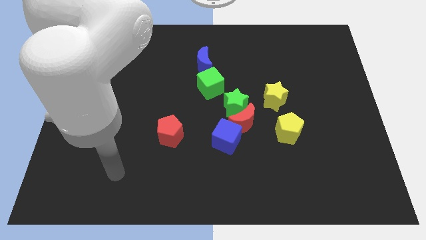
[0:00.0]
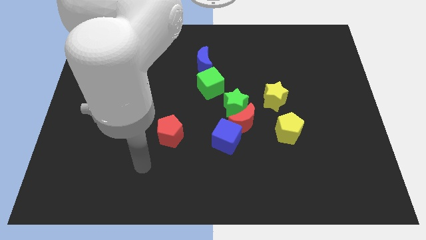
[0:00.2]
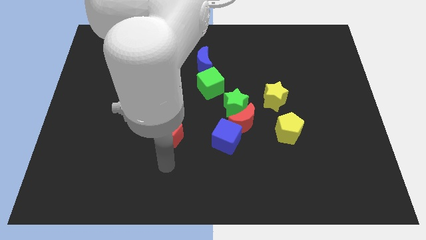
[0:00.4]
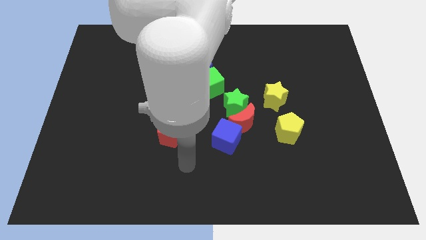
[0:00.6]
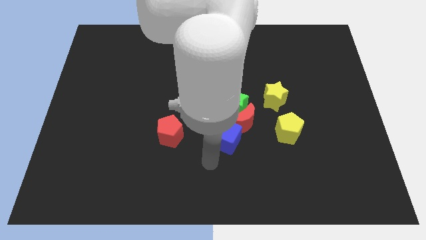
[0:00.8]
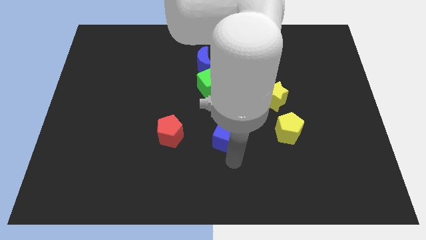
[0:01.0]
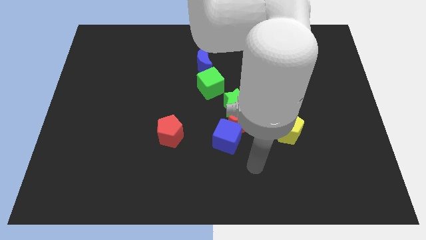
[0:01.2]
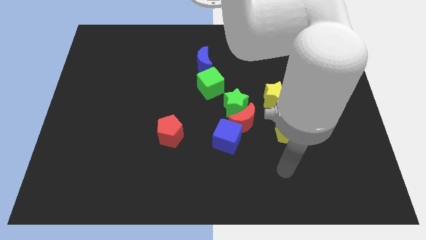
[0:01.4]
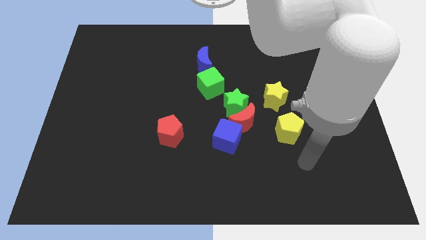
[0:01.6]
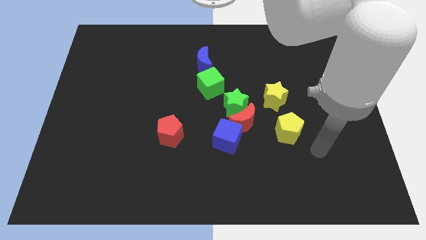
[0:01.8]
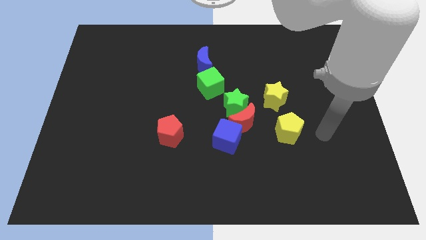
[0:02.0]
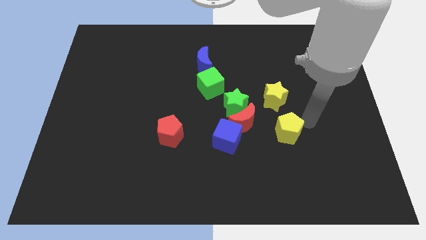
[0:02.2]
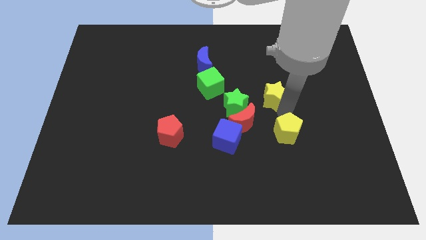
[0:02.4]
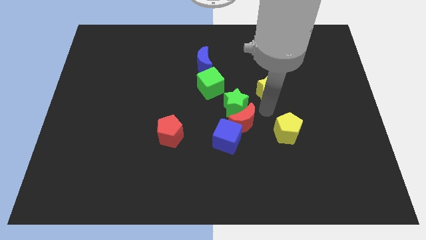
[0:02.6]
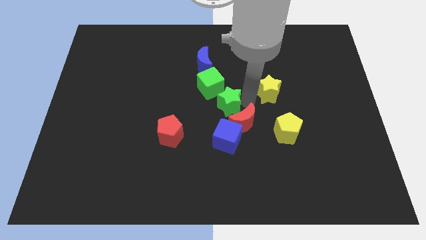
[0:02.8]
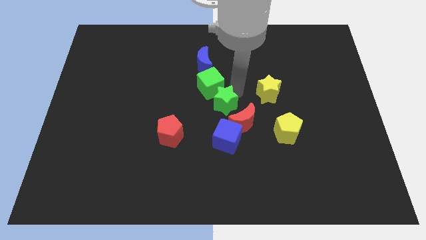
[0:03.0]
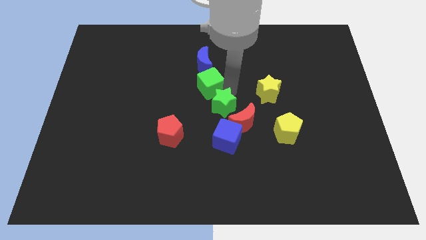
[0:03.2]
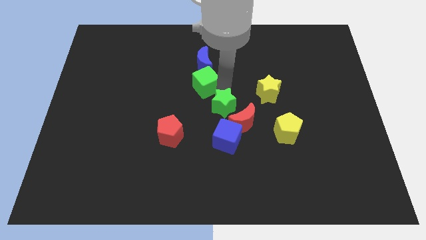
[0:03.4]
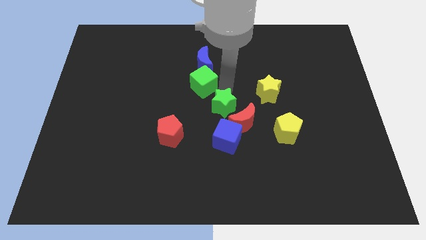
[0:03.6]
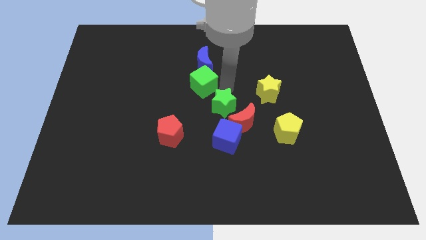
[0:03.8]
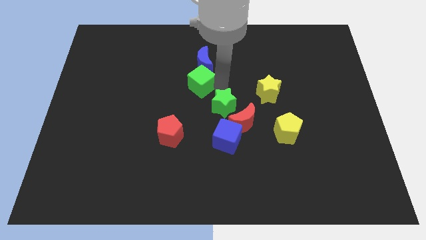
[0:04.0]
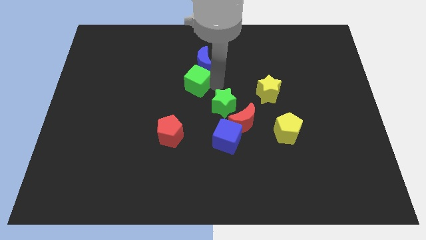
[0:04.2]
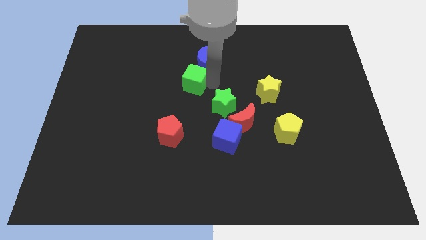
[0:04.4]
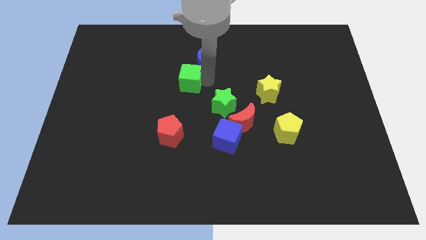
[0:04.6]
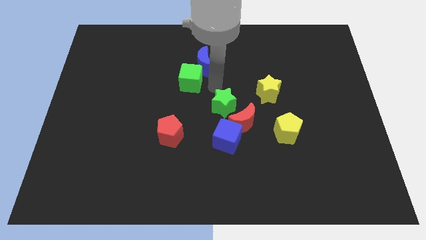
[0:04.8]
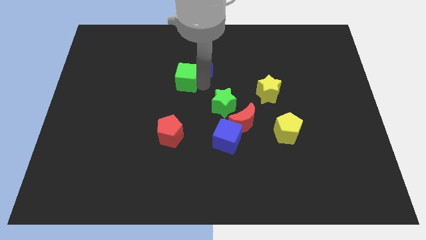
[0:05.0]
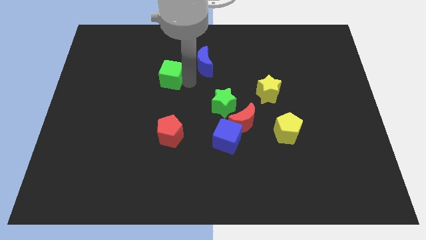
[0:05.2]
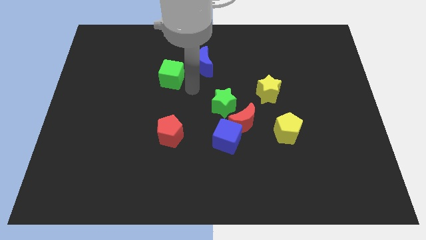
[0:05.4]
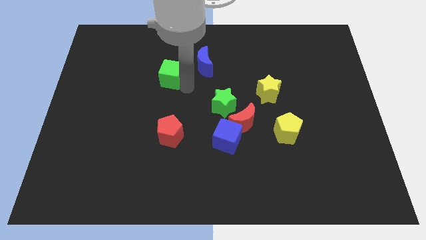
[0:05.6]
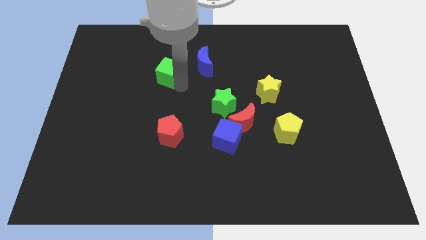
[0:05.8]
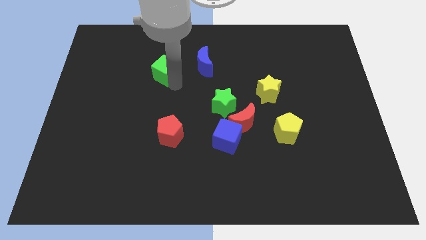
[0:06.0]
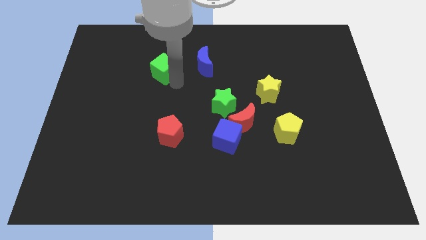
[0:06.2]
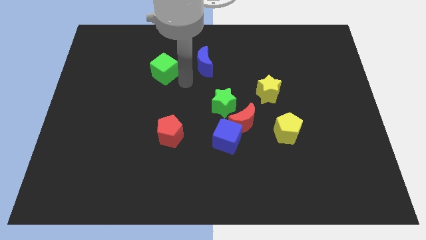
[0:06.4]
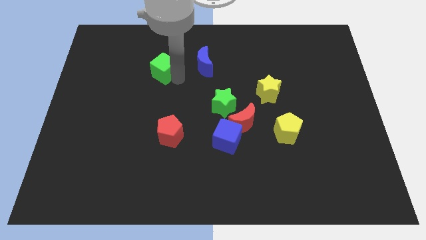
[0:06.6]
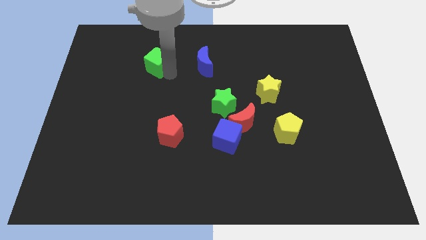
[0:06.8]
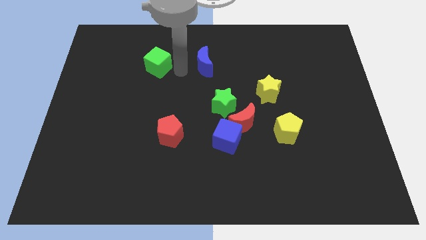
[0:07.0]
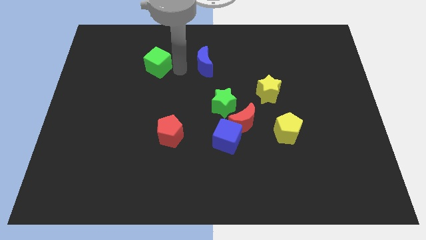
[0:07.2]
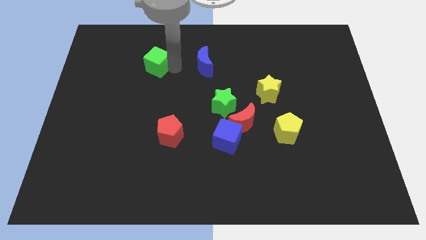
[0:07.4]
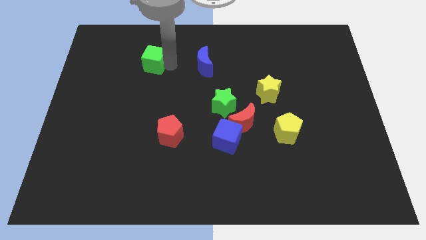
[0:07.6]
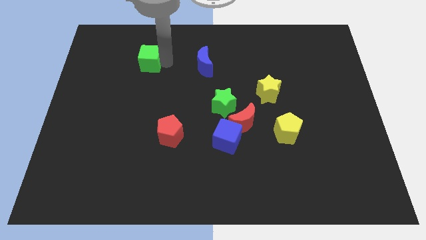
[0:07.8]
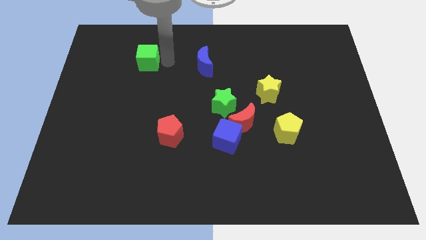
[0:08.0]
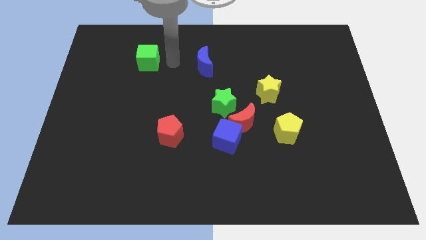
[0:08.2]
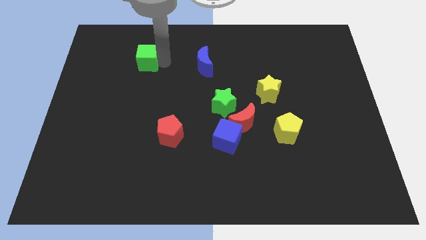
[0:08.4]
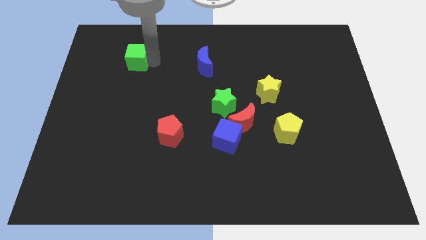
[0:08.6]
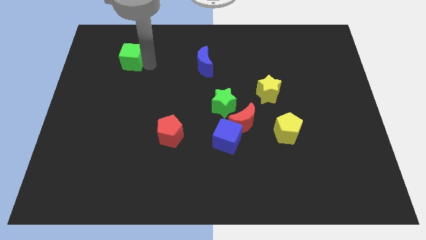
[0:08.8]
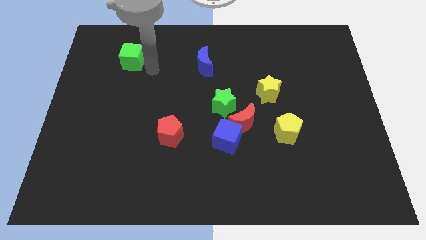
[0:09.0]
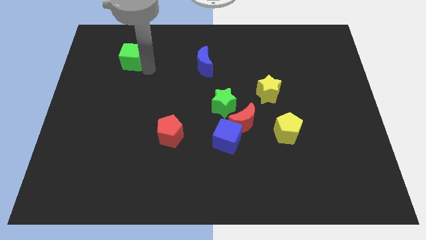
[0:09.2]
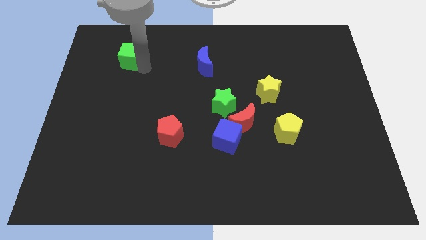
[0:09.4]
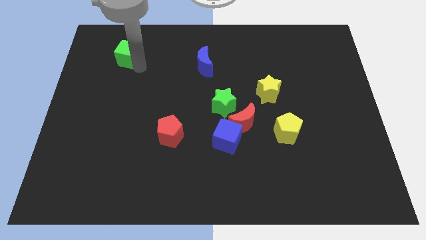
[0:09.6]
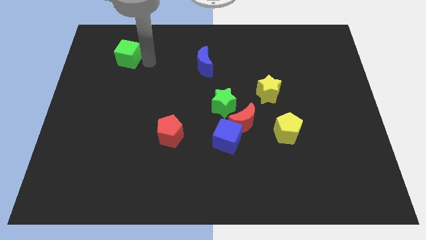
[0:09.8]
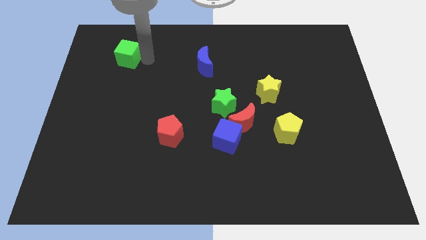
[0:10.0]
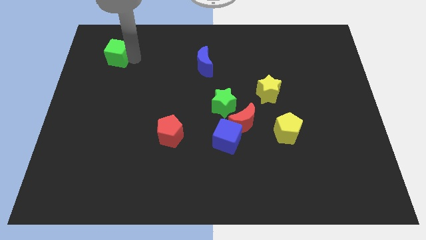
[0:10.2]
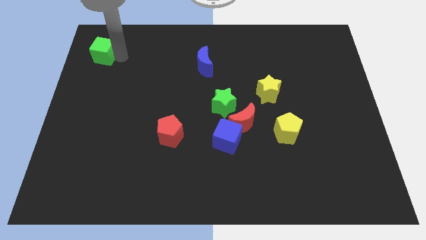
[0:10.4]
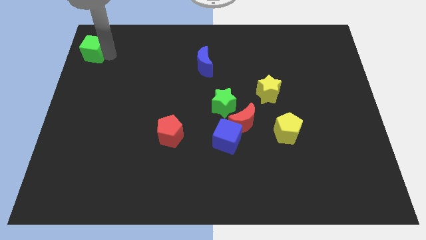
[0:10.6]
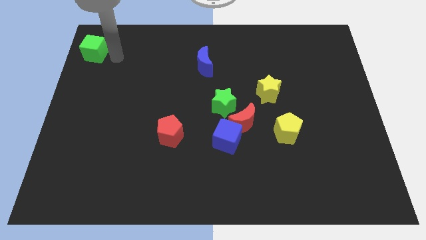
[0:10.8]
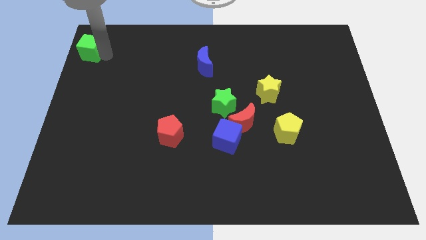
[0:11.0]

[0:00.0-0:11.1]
push the green cube to the upper left corner

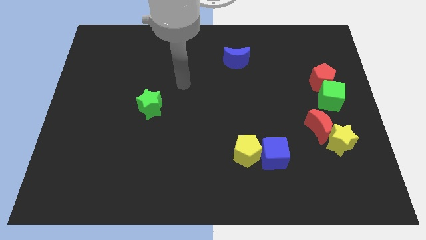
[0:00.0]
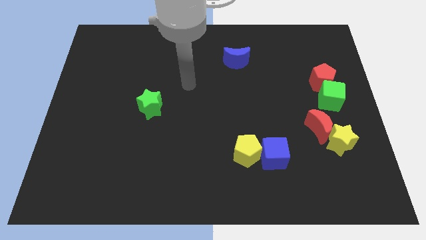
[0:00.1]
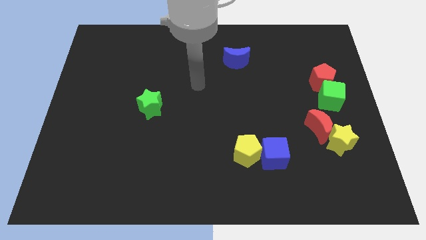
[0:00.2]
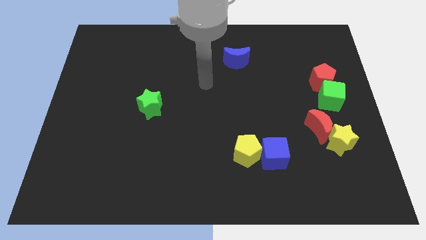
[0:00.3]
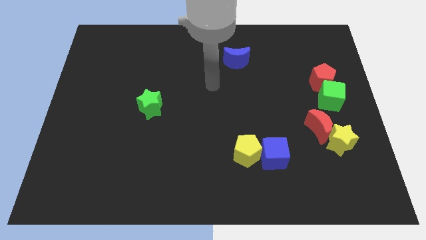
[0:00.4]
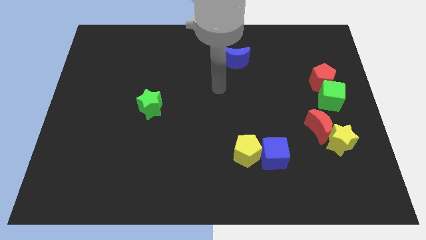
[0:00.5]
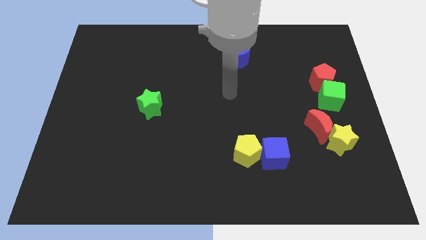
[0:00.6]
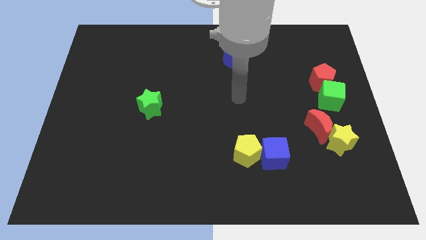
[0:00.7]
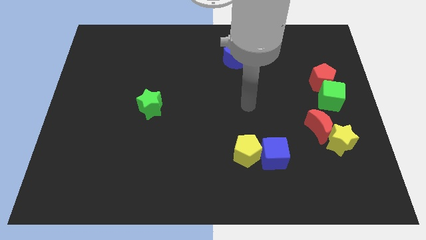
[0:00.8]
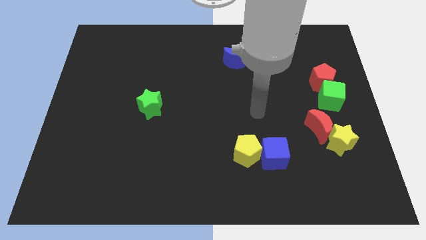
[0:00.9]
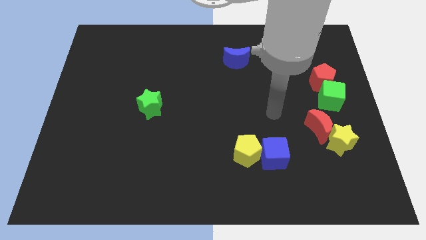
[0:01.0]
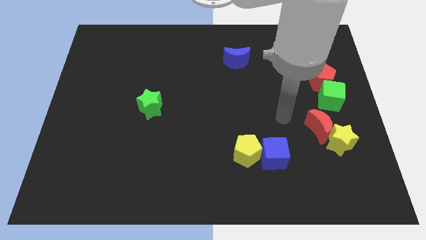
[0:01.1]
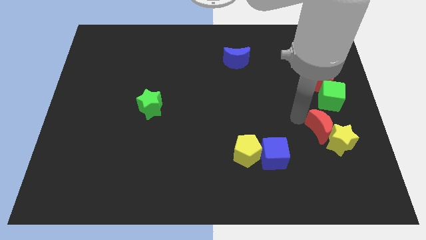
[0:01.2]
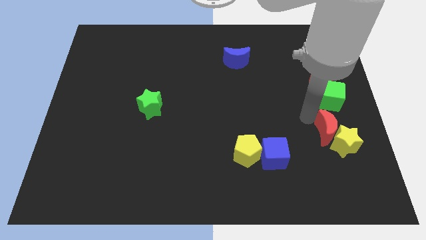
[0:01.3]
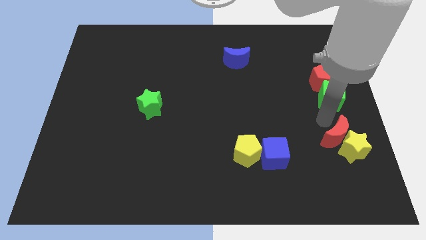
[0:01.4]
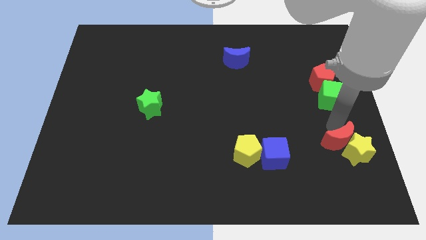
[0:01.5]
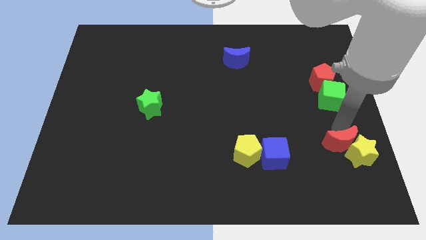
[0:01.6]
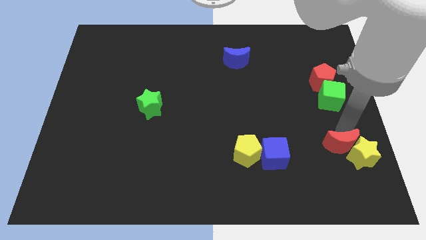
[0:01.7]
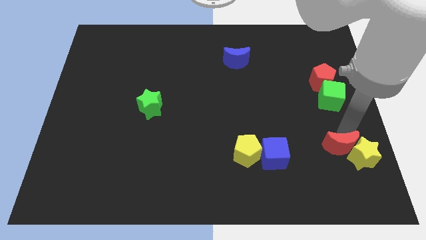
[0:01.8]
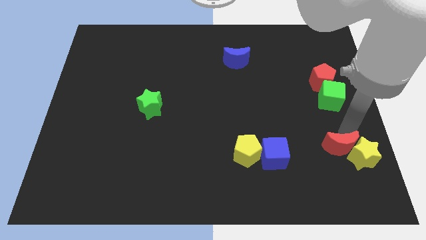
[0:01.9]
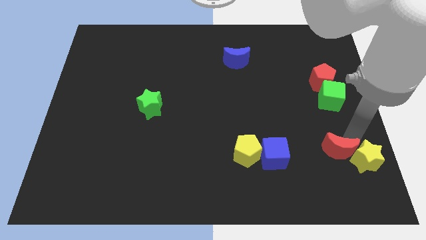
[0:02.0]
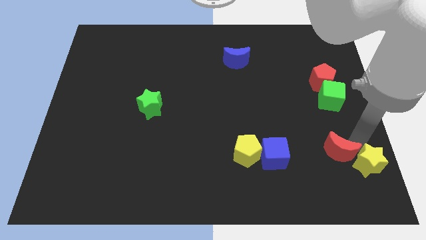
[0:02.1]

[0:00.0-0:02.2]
put the yellow star to the bottom right corner
